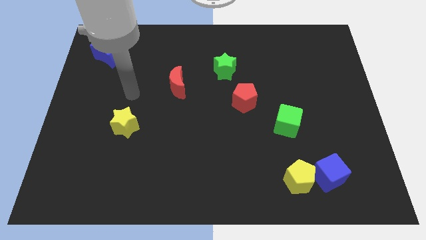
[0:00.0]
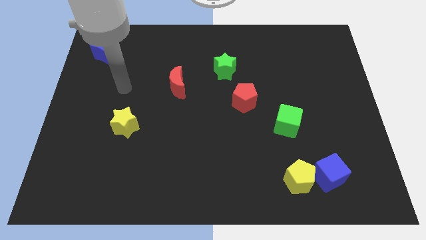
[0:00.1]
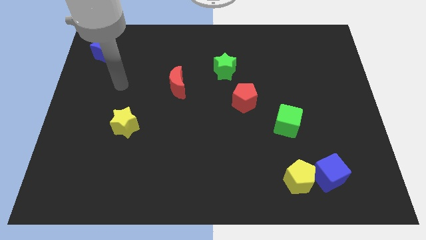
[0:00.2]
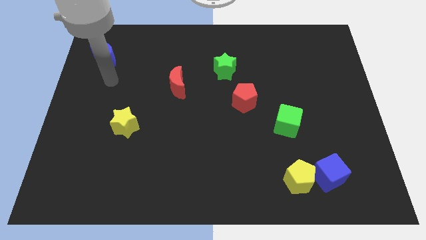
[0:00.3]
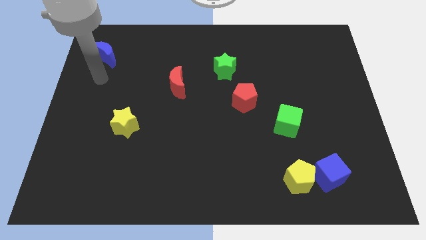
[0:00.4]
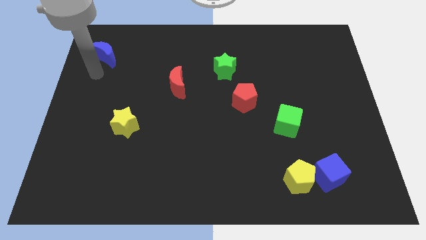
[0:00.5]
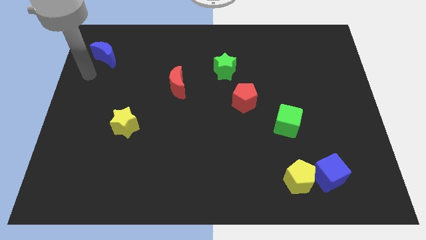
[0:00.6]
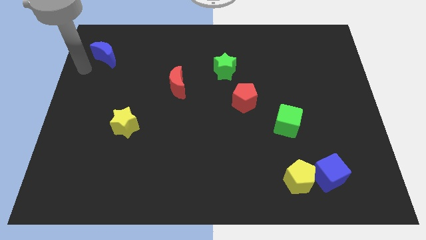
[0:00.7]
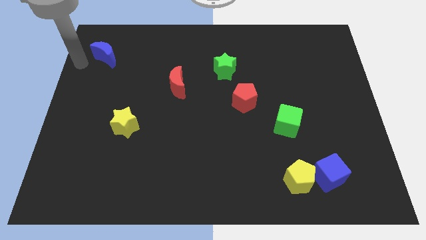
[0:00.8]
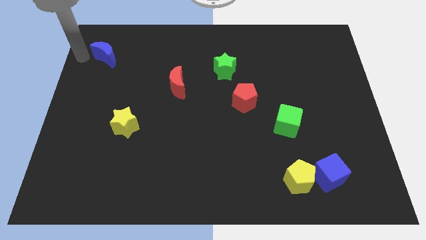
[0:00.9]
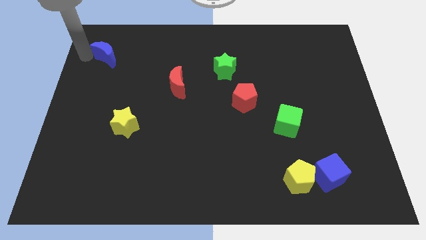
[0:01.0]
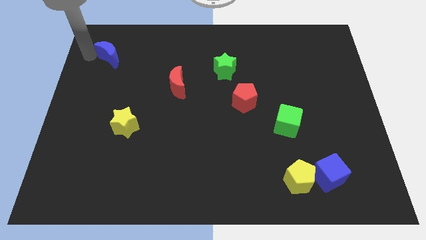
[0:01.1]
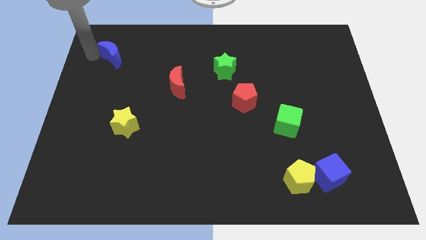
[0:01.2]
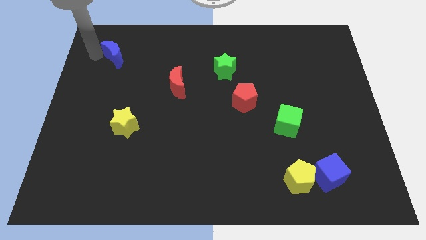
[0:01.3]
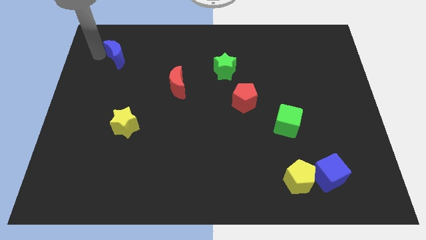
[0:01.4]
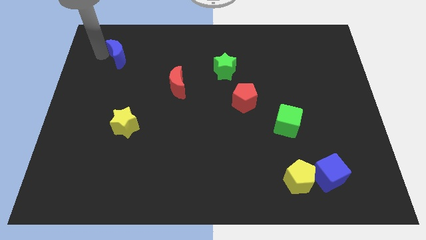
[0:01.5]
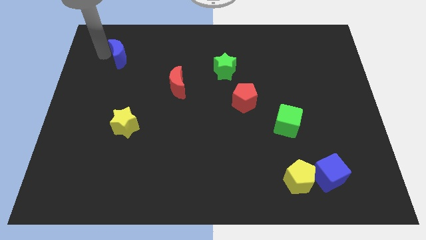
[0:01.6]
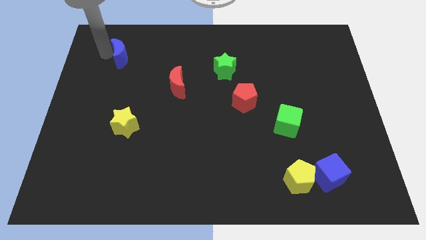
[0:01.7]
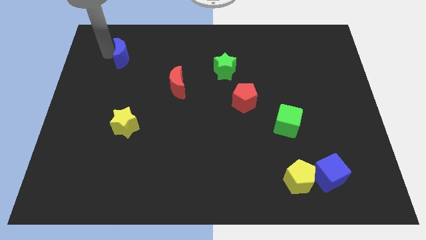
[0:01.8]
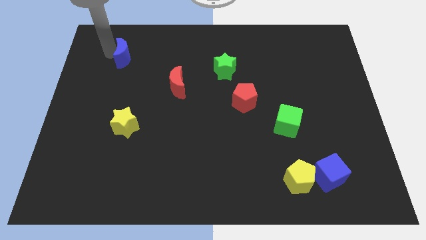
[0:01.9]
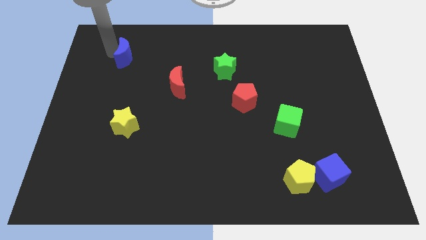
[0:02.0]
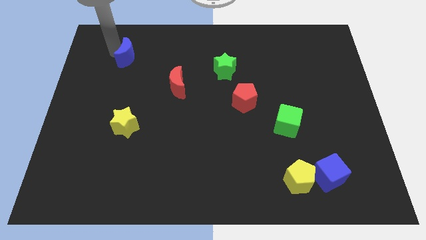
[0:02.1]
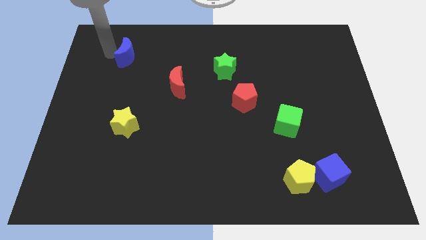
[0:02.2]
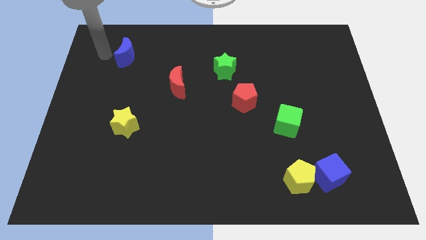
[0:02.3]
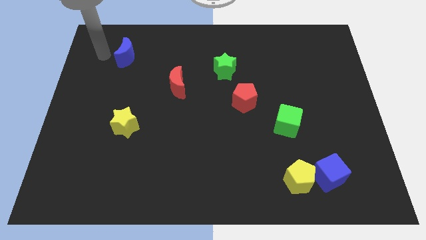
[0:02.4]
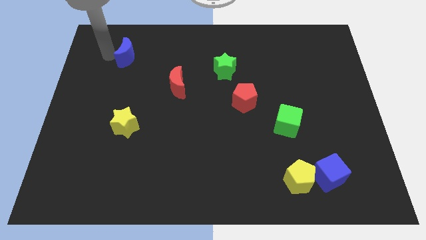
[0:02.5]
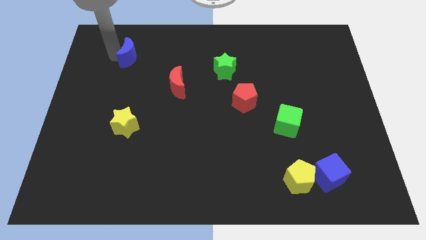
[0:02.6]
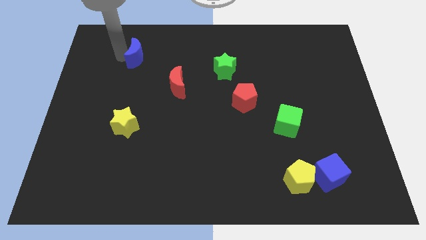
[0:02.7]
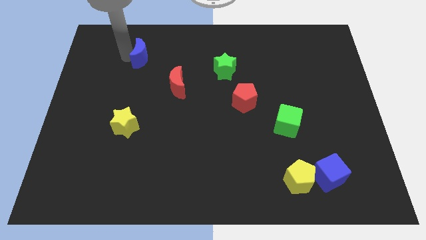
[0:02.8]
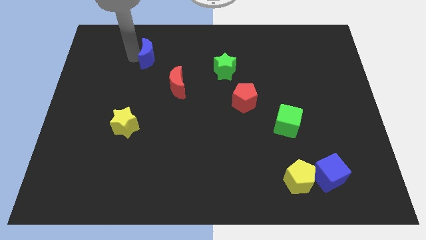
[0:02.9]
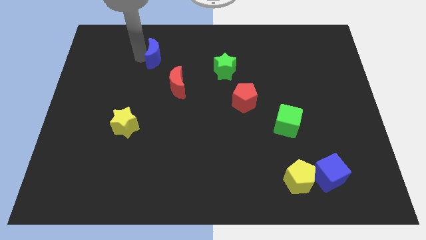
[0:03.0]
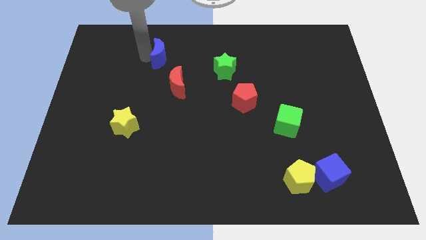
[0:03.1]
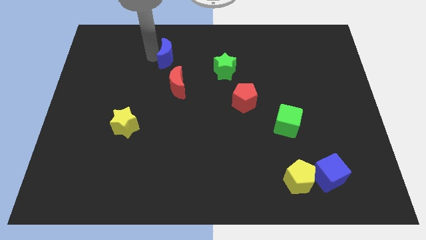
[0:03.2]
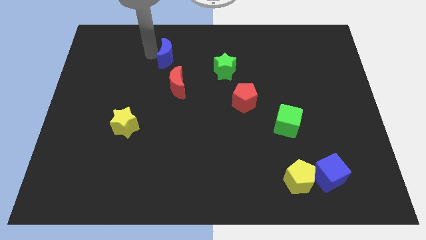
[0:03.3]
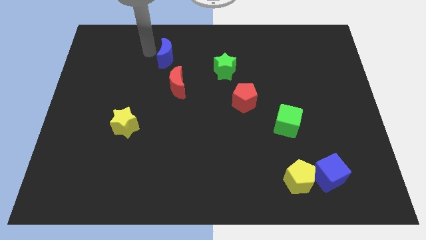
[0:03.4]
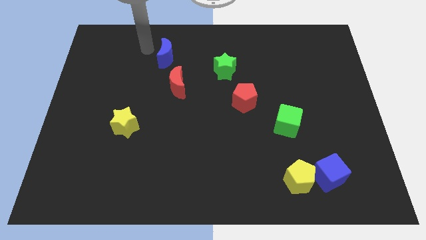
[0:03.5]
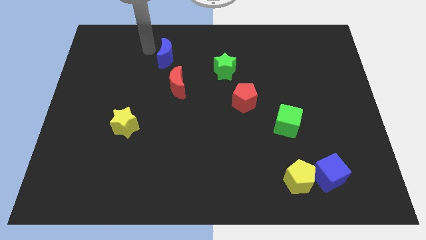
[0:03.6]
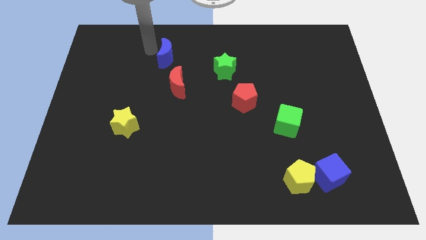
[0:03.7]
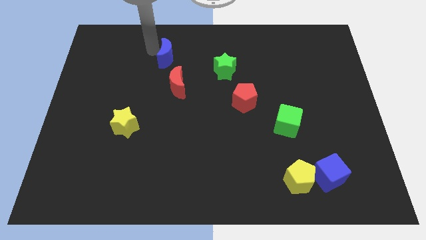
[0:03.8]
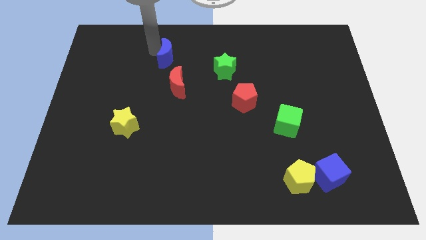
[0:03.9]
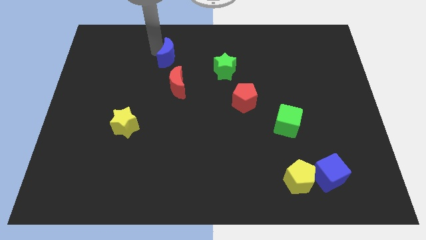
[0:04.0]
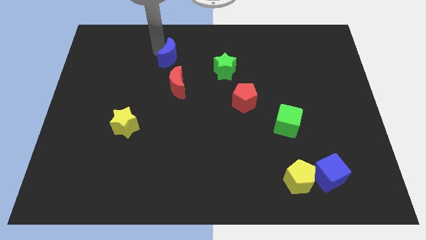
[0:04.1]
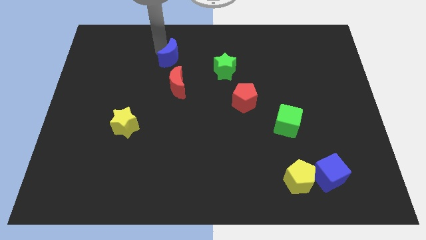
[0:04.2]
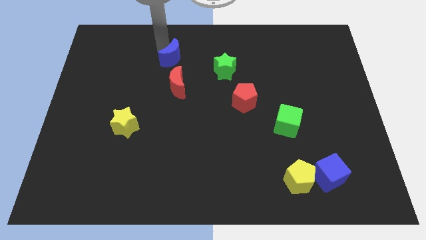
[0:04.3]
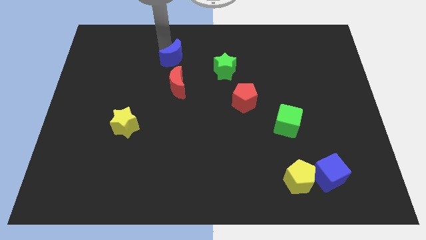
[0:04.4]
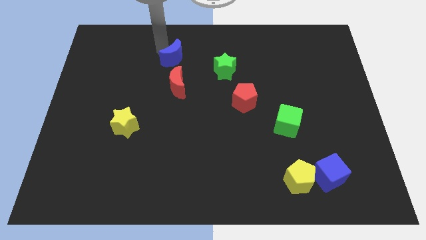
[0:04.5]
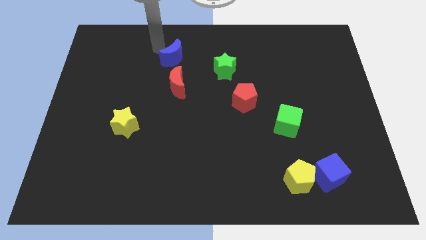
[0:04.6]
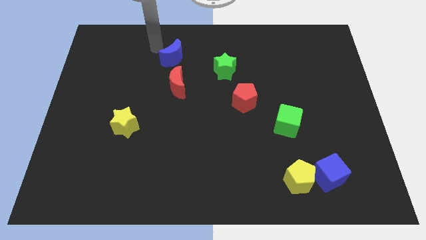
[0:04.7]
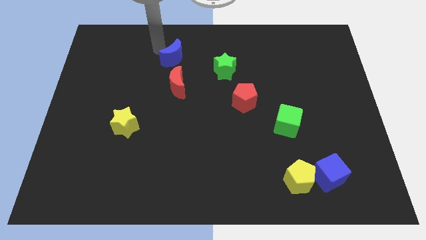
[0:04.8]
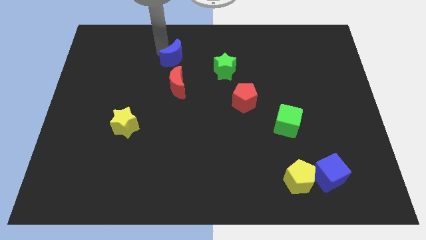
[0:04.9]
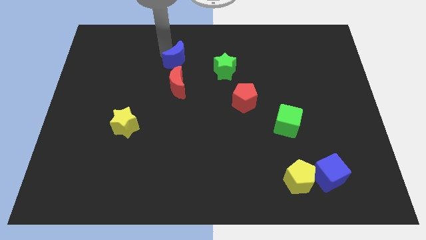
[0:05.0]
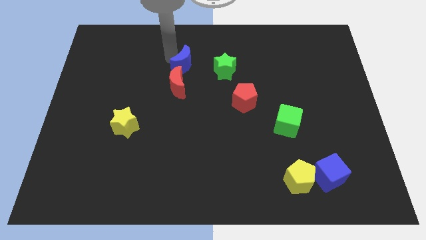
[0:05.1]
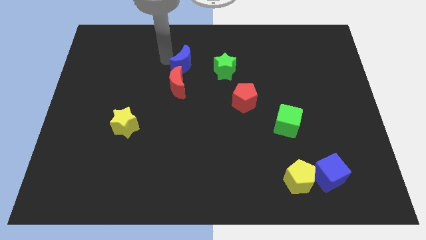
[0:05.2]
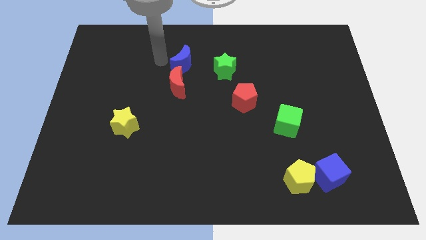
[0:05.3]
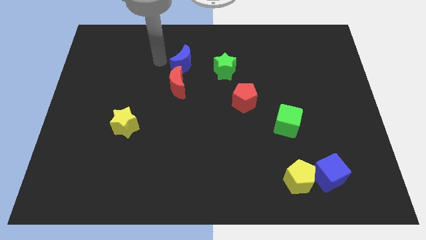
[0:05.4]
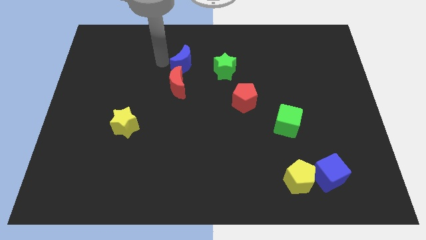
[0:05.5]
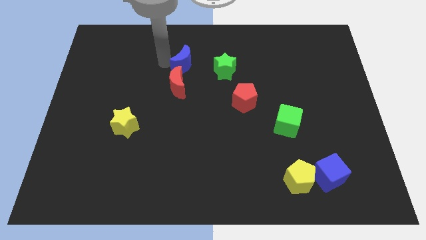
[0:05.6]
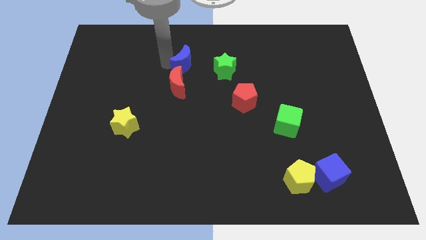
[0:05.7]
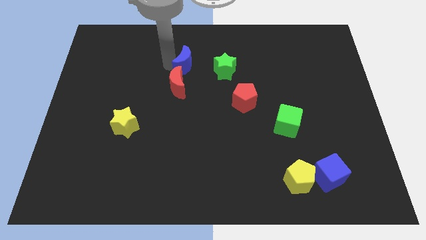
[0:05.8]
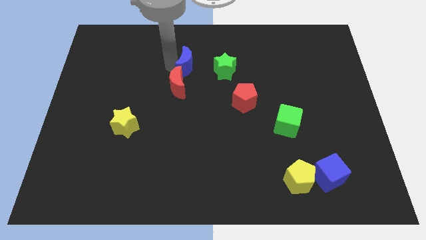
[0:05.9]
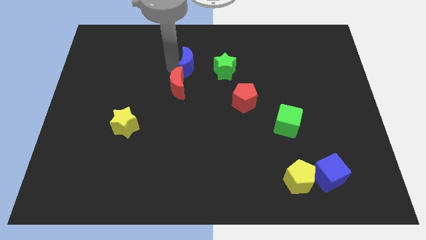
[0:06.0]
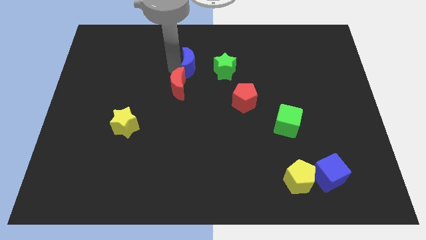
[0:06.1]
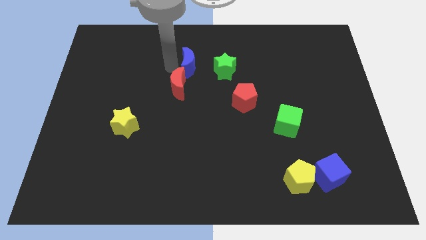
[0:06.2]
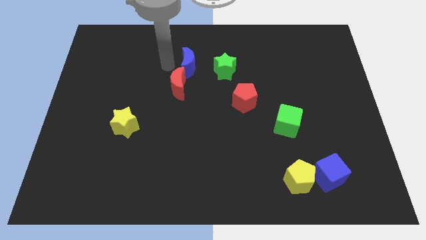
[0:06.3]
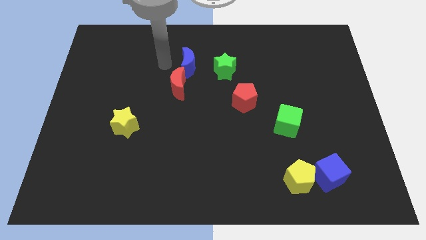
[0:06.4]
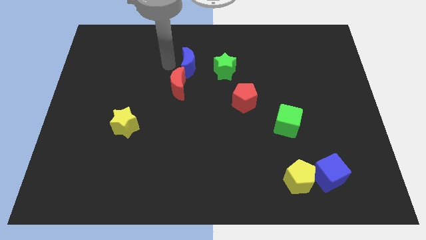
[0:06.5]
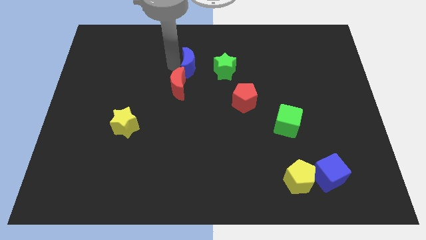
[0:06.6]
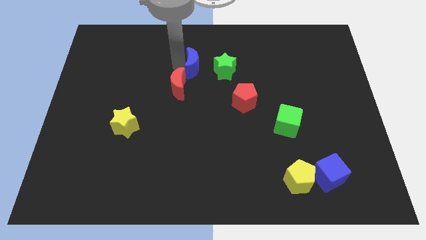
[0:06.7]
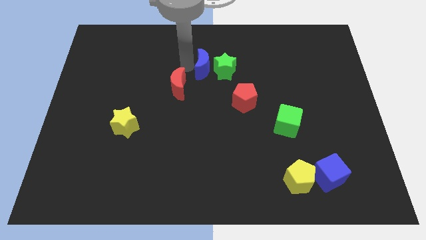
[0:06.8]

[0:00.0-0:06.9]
slide the blue moon next to the green star
